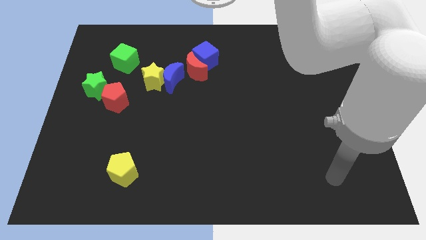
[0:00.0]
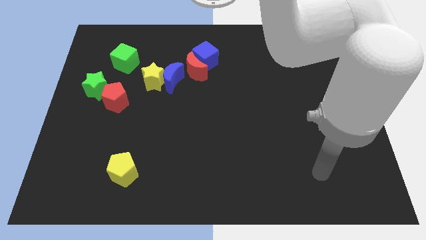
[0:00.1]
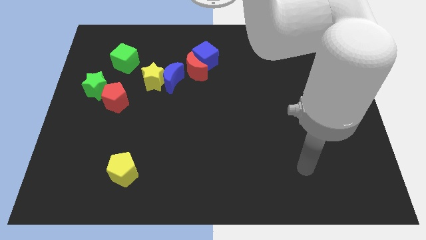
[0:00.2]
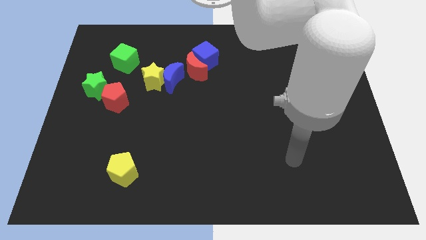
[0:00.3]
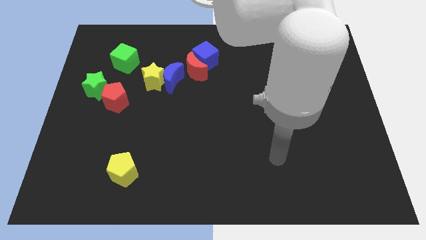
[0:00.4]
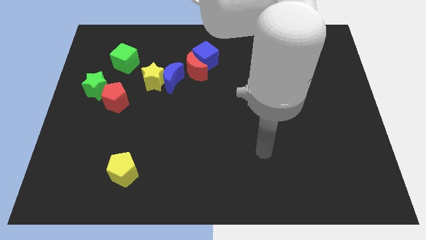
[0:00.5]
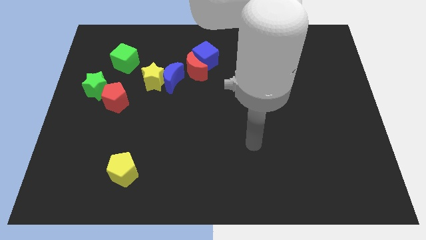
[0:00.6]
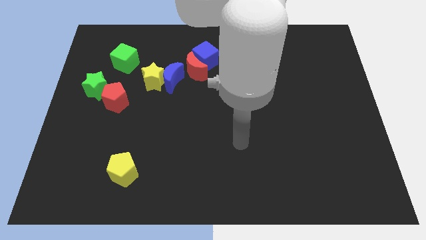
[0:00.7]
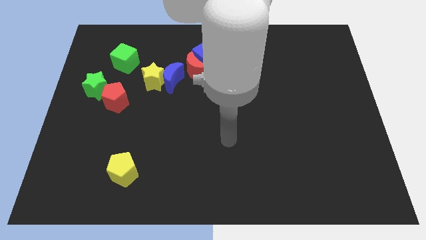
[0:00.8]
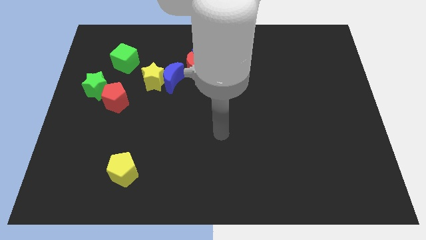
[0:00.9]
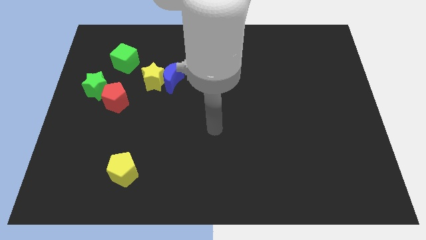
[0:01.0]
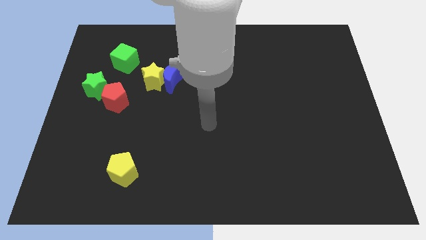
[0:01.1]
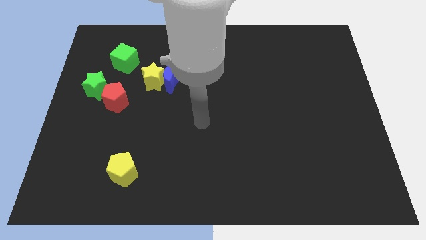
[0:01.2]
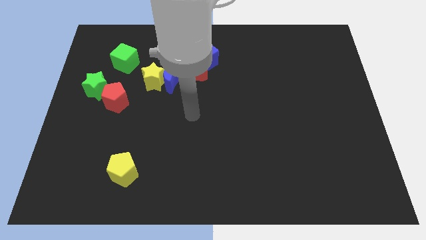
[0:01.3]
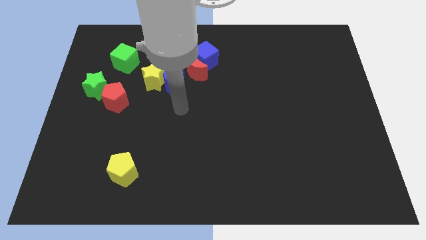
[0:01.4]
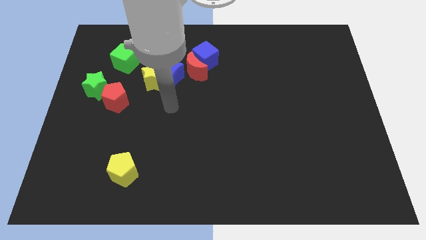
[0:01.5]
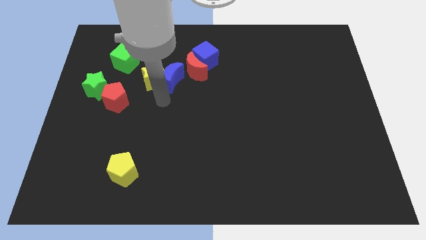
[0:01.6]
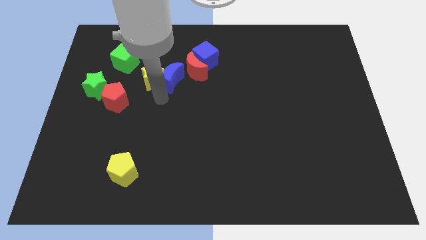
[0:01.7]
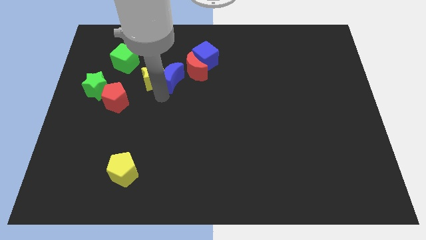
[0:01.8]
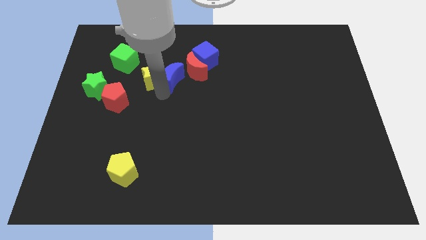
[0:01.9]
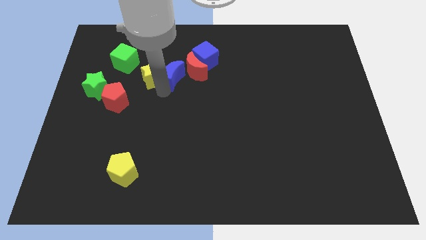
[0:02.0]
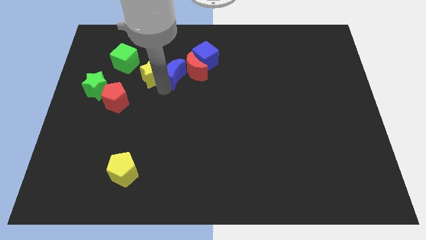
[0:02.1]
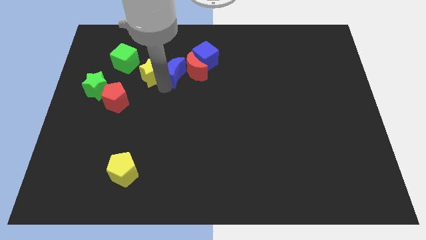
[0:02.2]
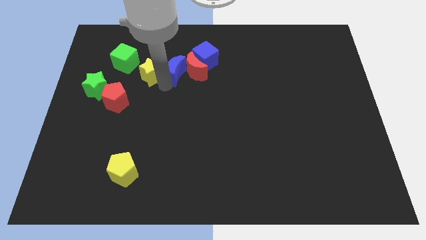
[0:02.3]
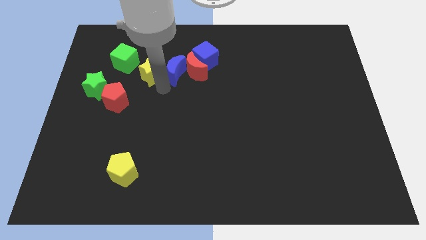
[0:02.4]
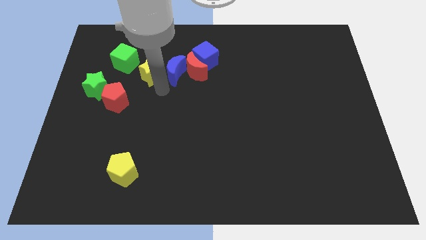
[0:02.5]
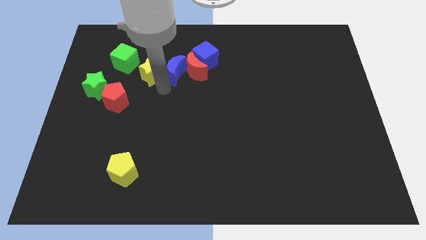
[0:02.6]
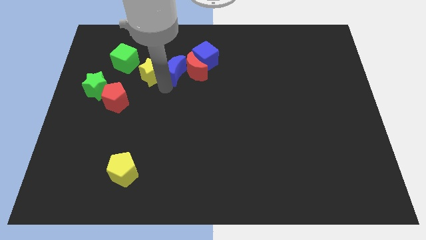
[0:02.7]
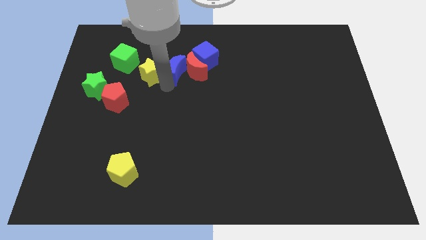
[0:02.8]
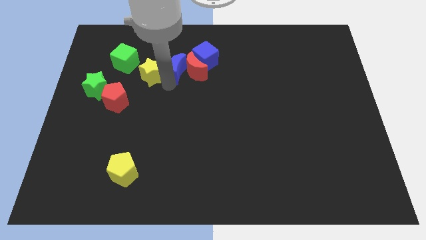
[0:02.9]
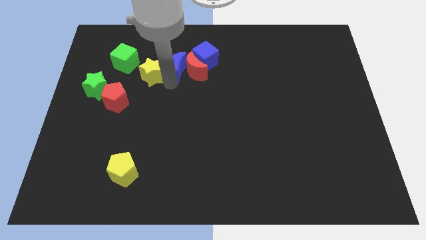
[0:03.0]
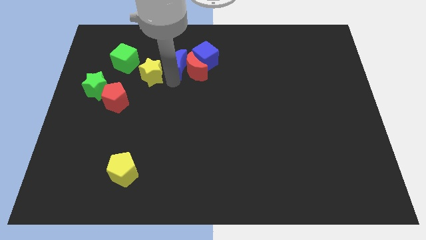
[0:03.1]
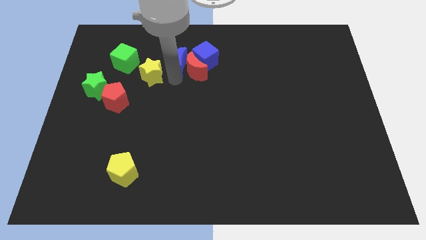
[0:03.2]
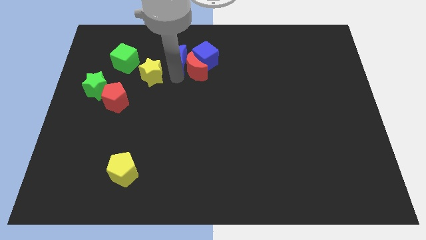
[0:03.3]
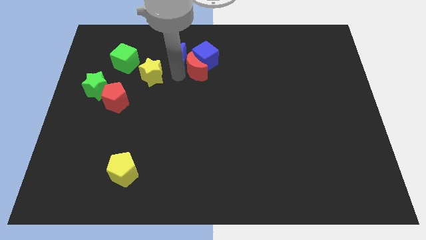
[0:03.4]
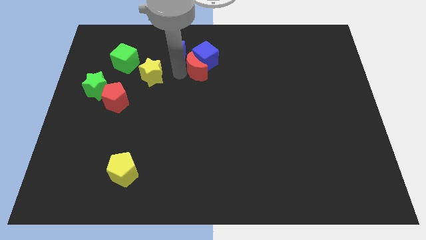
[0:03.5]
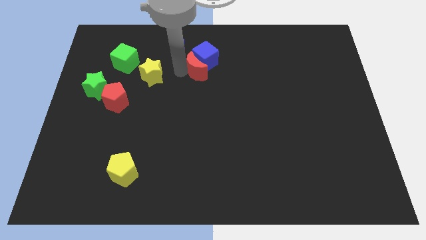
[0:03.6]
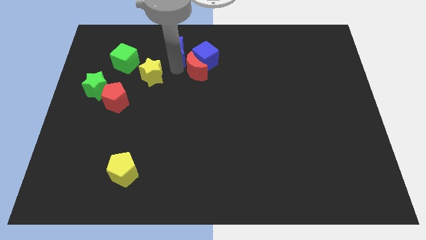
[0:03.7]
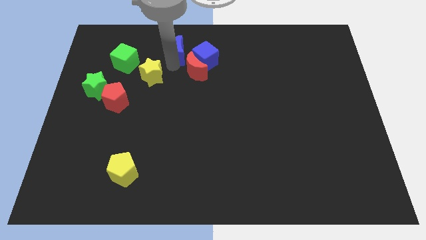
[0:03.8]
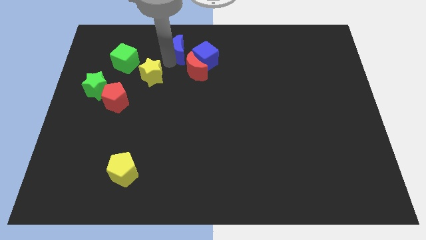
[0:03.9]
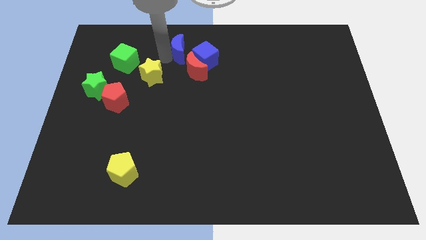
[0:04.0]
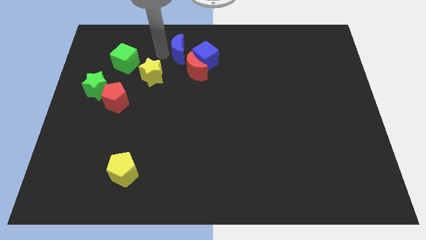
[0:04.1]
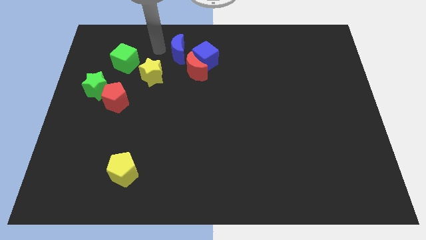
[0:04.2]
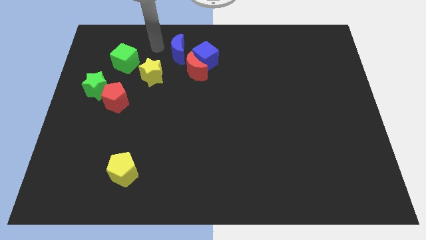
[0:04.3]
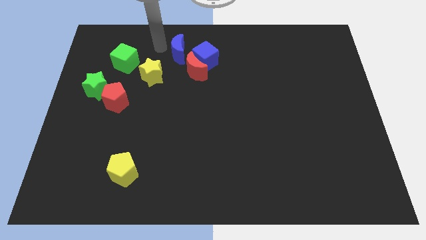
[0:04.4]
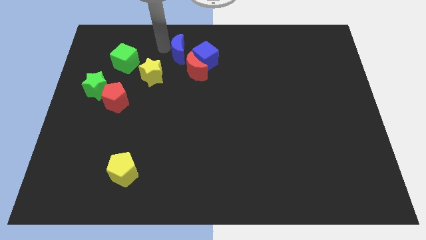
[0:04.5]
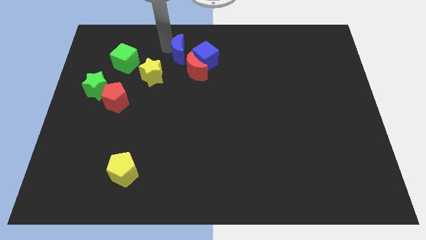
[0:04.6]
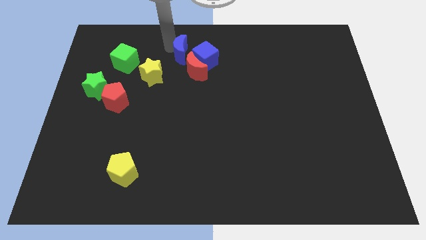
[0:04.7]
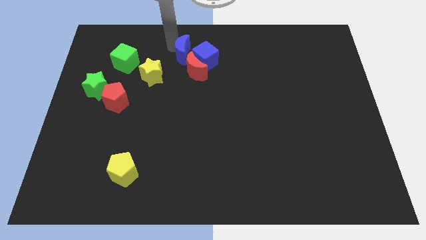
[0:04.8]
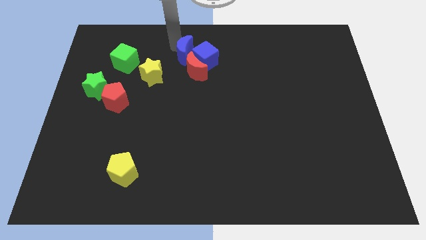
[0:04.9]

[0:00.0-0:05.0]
slide the blue moon to the blue cube

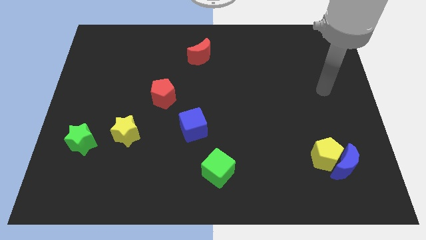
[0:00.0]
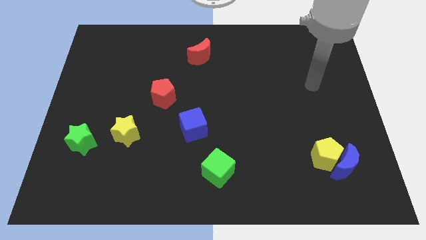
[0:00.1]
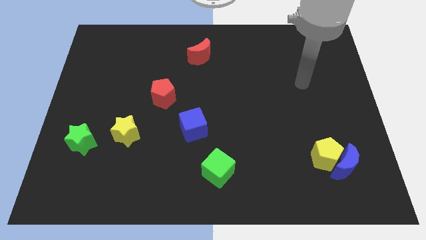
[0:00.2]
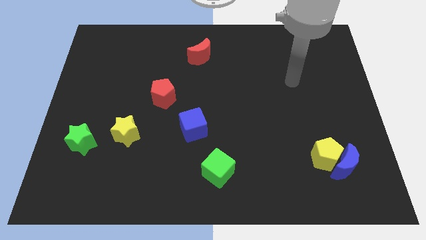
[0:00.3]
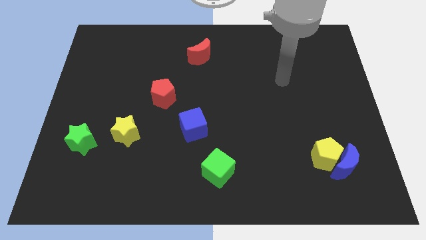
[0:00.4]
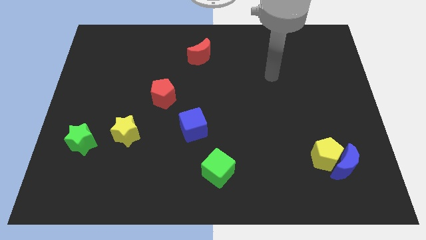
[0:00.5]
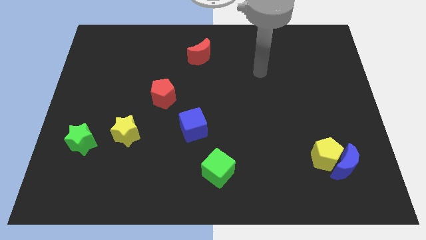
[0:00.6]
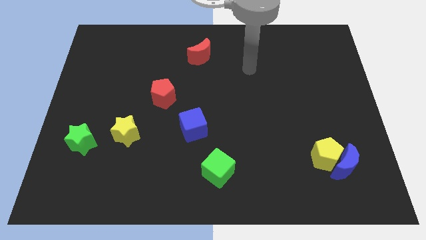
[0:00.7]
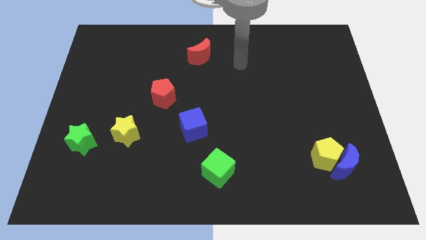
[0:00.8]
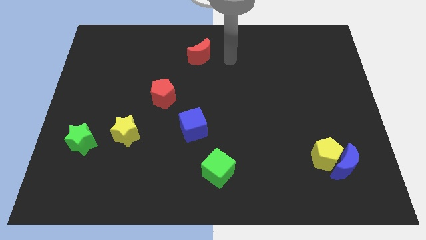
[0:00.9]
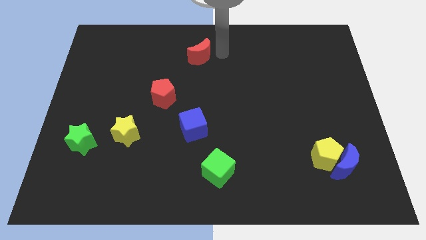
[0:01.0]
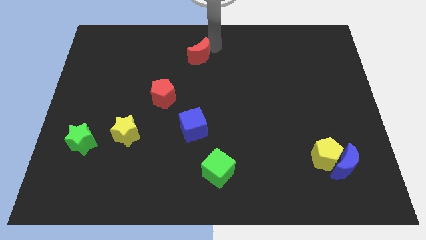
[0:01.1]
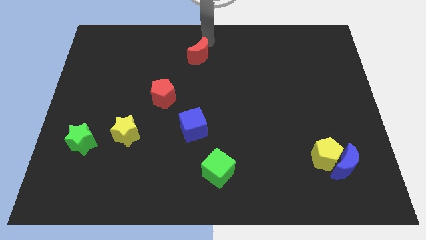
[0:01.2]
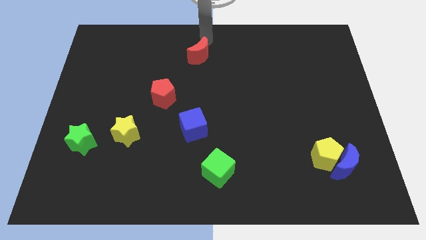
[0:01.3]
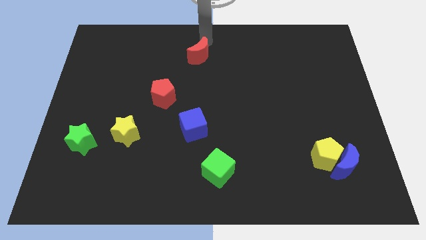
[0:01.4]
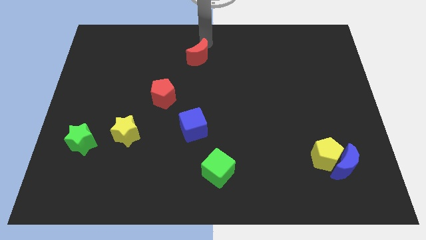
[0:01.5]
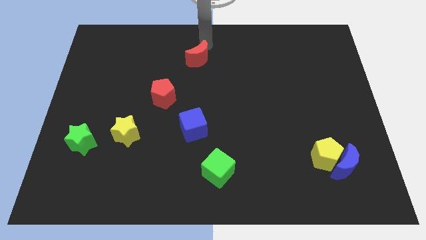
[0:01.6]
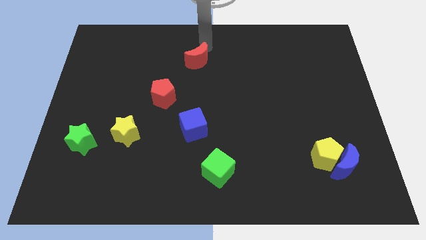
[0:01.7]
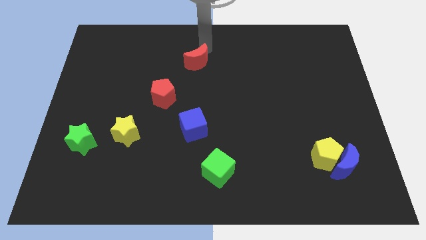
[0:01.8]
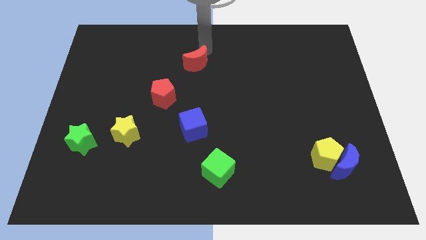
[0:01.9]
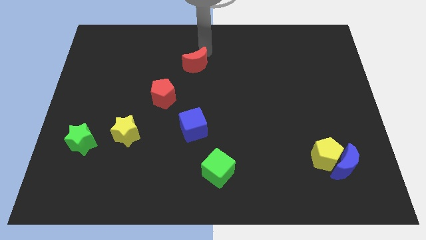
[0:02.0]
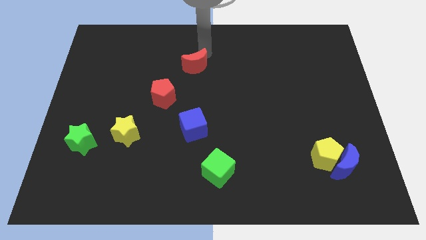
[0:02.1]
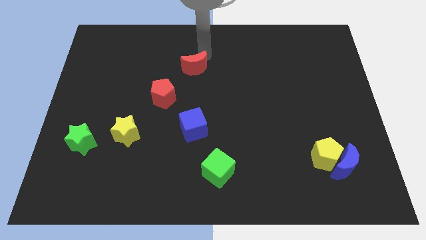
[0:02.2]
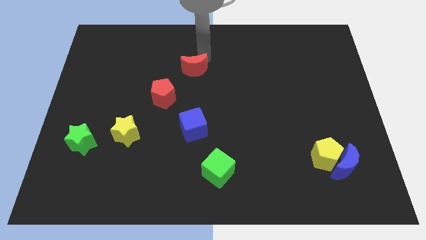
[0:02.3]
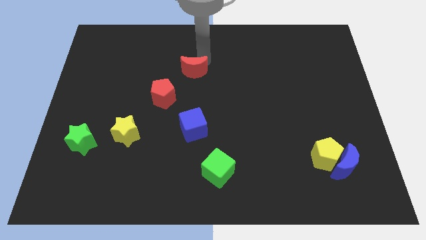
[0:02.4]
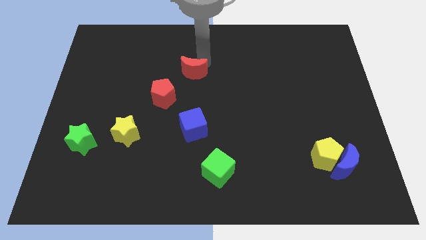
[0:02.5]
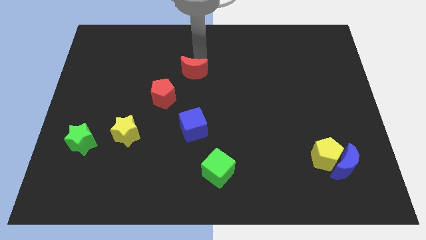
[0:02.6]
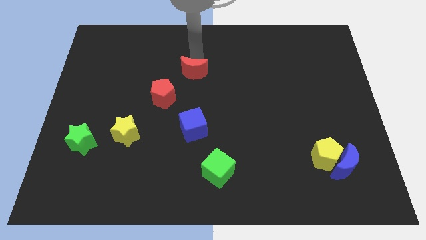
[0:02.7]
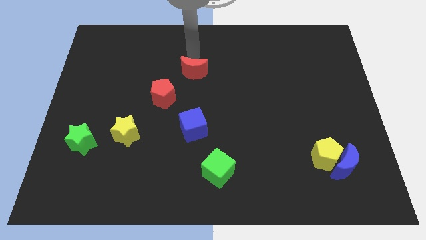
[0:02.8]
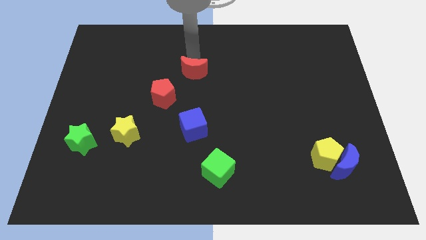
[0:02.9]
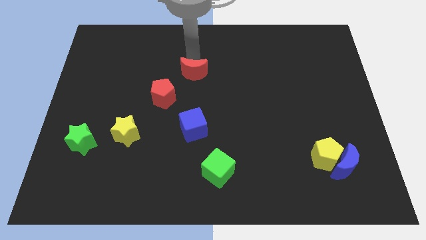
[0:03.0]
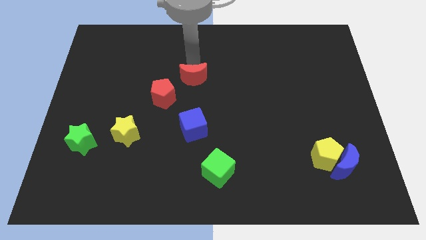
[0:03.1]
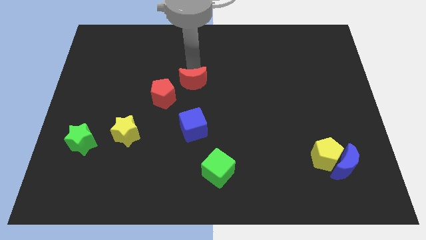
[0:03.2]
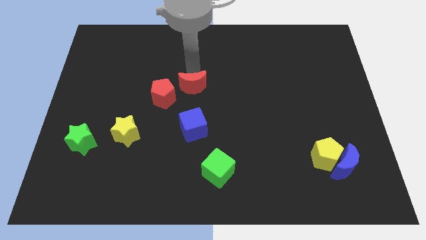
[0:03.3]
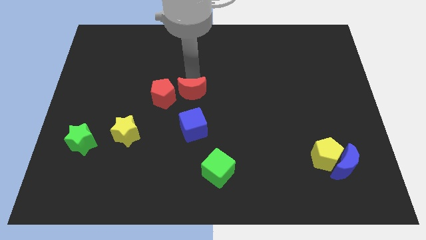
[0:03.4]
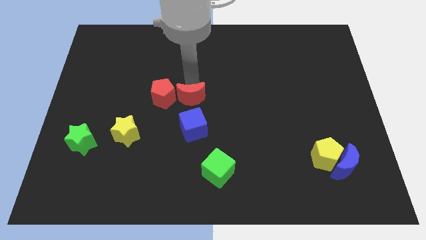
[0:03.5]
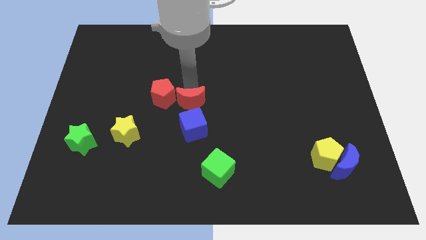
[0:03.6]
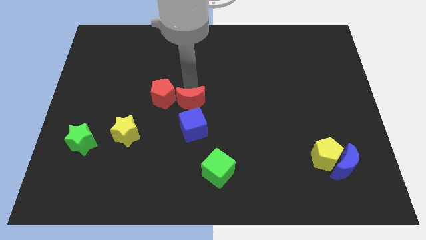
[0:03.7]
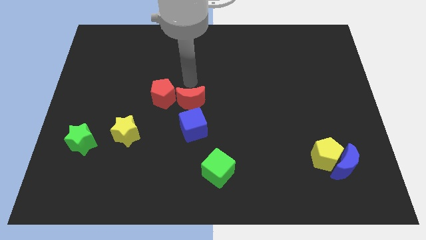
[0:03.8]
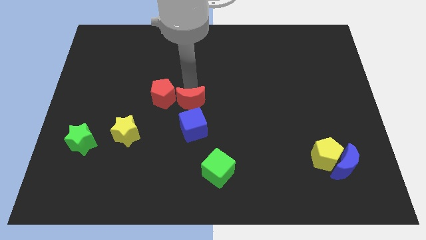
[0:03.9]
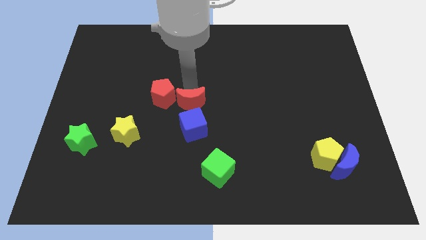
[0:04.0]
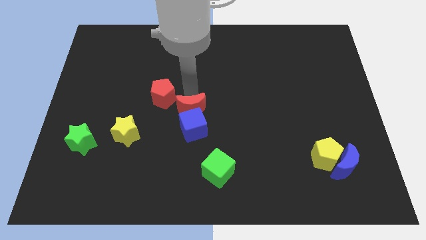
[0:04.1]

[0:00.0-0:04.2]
put the red moon next to the blue cube
